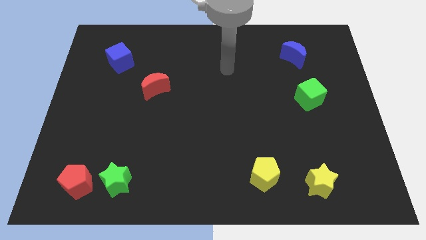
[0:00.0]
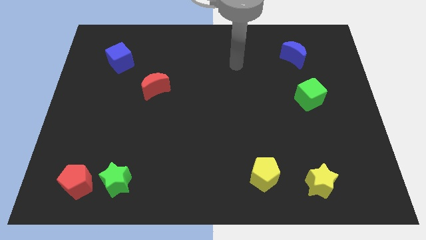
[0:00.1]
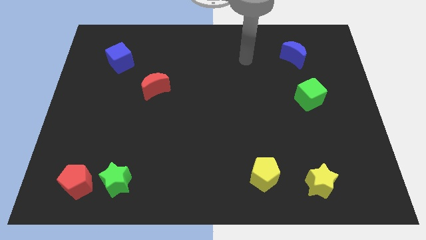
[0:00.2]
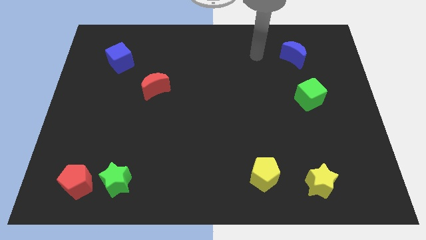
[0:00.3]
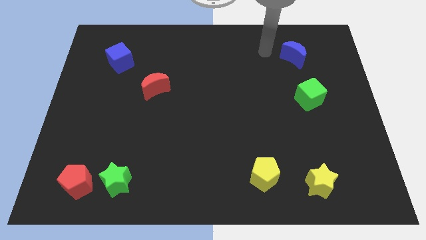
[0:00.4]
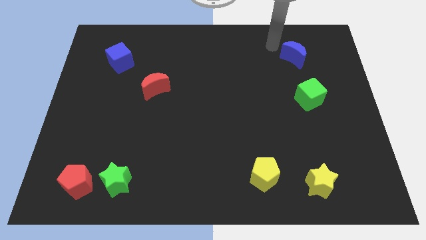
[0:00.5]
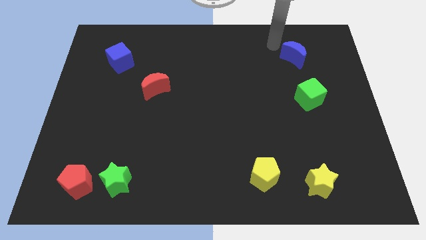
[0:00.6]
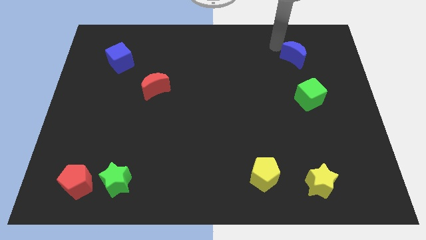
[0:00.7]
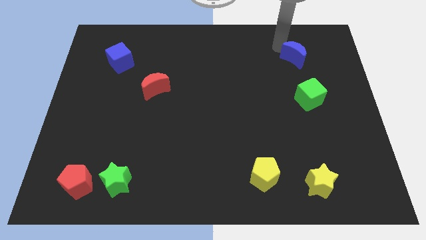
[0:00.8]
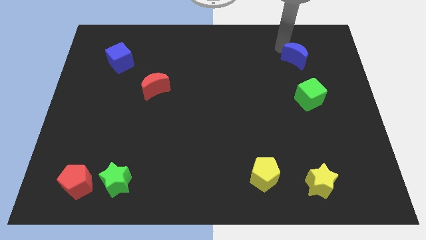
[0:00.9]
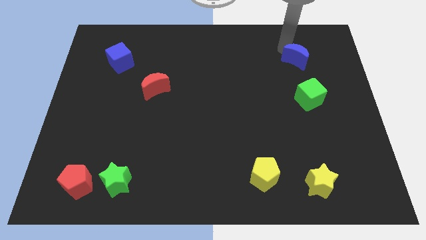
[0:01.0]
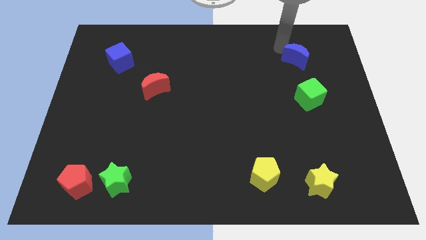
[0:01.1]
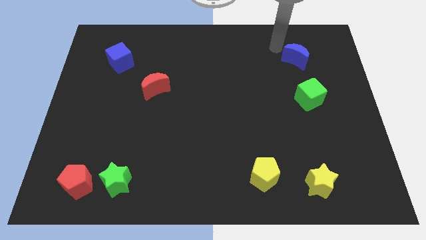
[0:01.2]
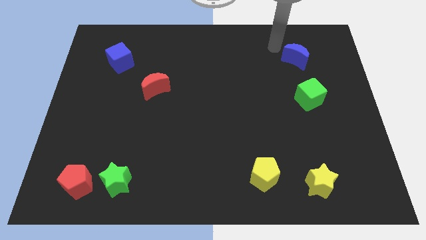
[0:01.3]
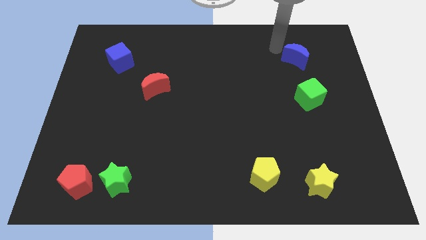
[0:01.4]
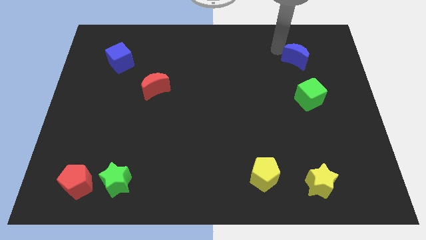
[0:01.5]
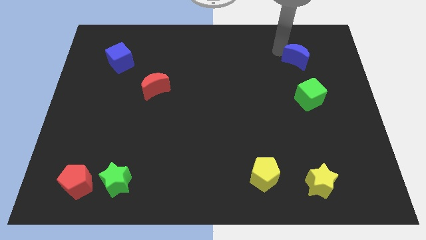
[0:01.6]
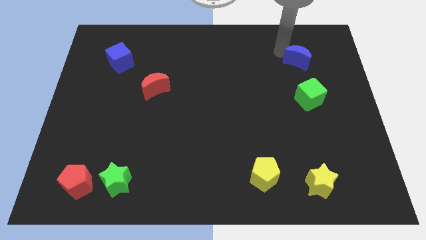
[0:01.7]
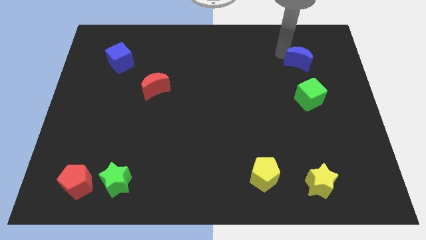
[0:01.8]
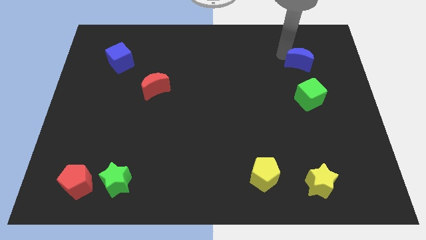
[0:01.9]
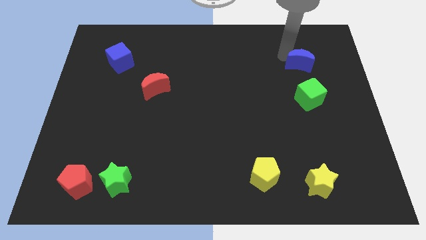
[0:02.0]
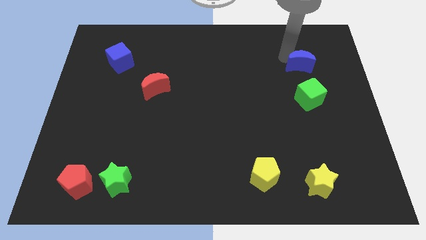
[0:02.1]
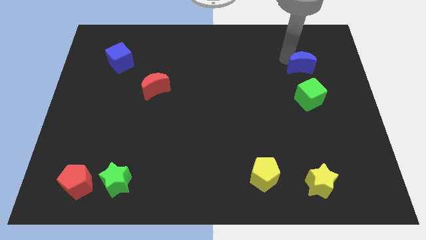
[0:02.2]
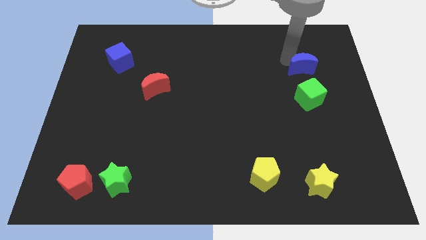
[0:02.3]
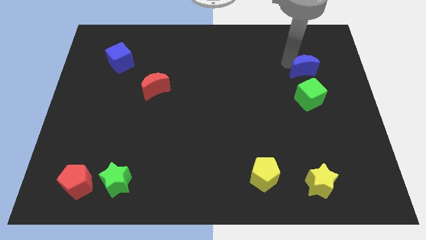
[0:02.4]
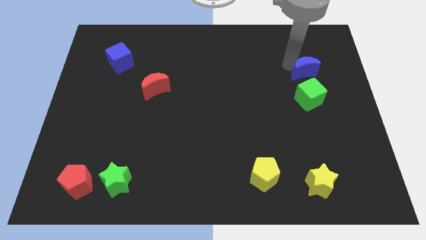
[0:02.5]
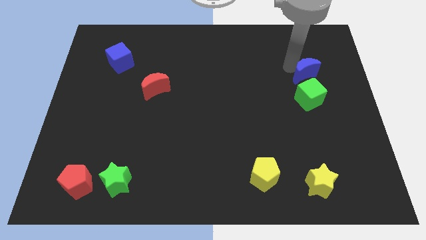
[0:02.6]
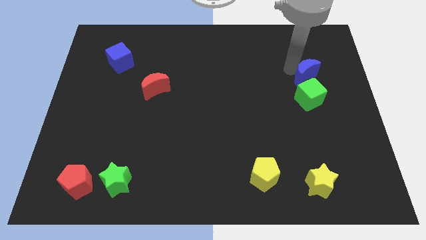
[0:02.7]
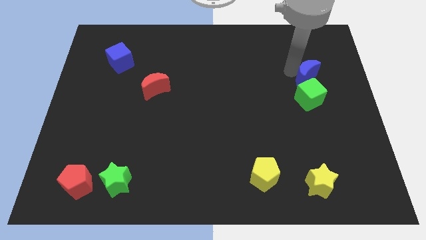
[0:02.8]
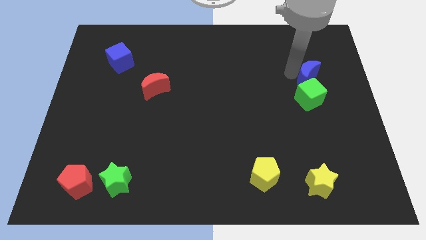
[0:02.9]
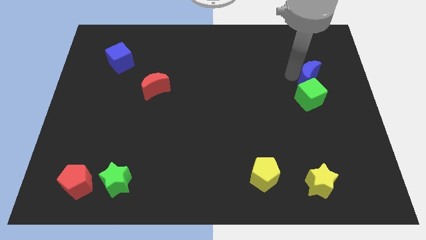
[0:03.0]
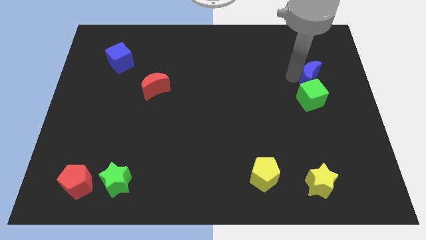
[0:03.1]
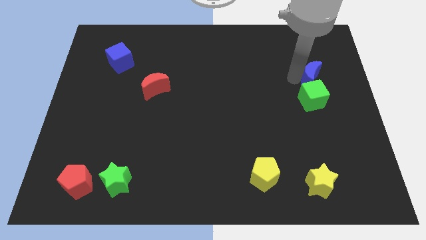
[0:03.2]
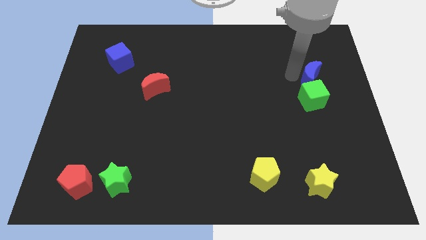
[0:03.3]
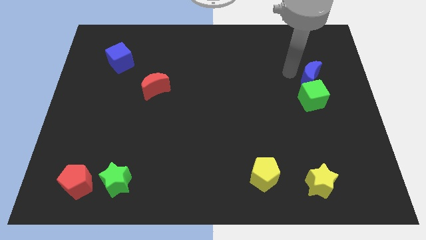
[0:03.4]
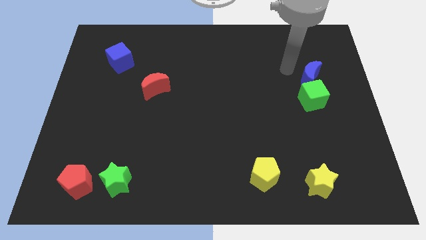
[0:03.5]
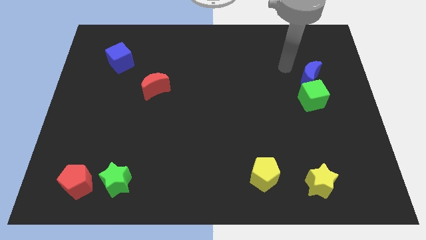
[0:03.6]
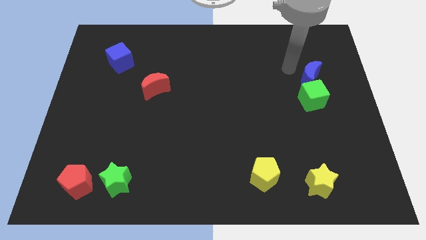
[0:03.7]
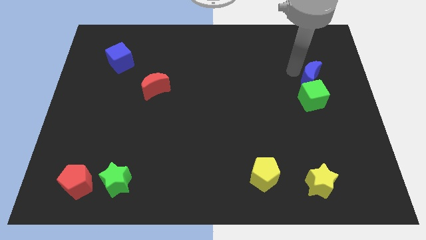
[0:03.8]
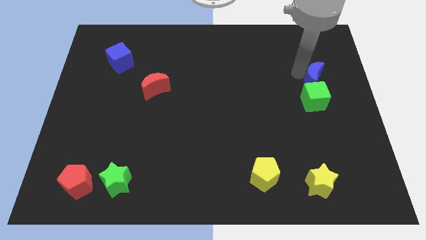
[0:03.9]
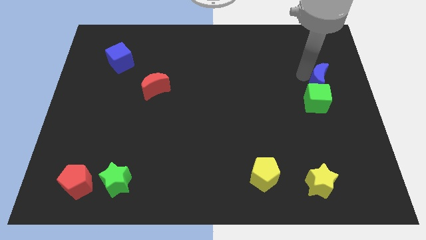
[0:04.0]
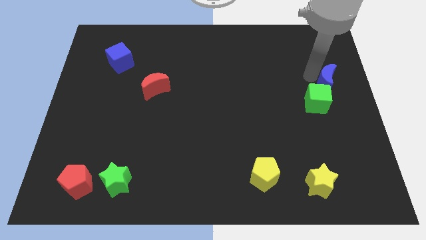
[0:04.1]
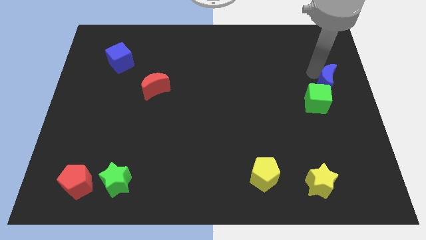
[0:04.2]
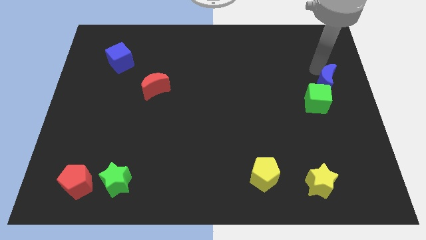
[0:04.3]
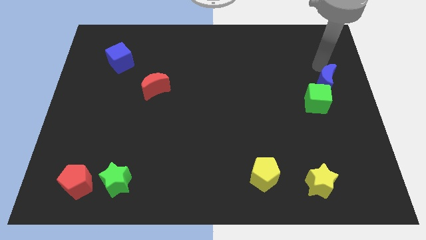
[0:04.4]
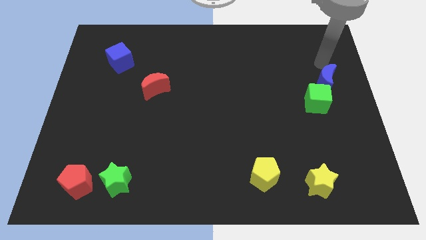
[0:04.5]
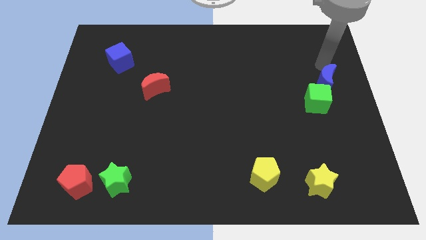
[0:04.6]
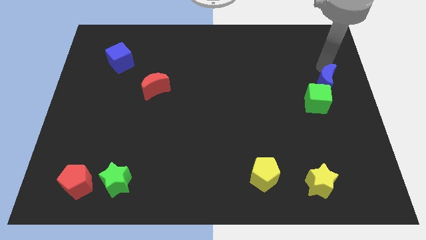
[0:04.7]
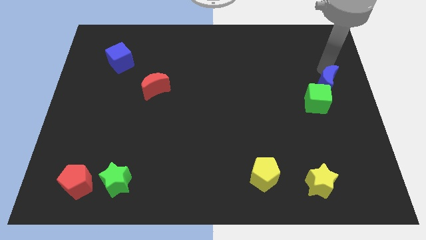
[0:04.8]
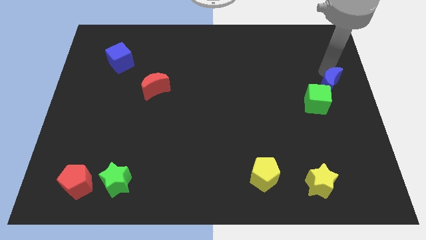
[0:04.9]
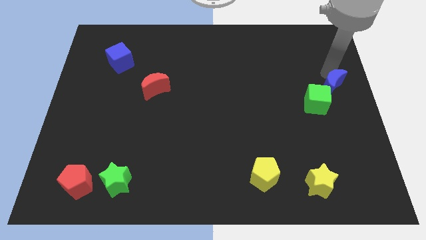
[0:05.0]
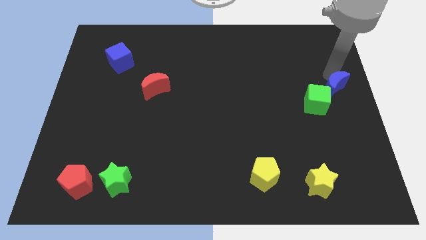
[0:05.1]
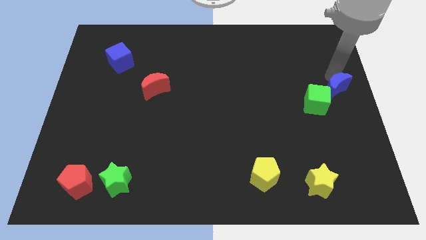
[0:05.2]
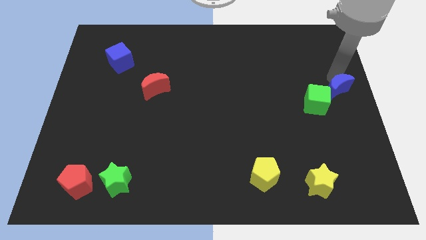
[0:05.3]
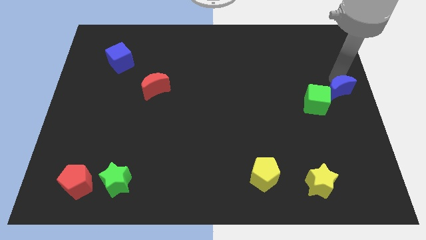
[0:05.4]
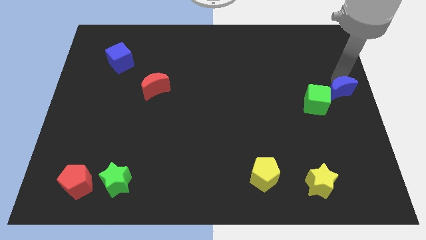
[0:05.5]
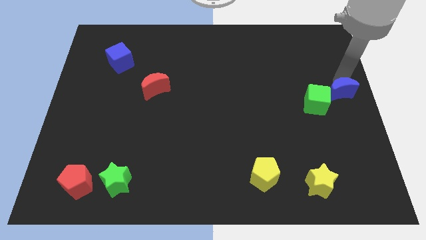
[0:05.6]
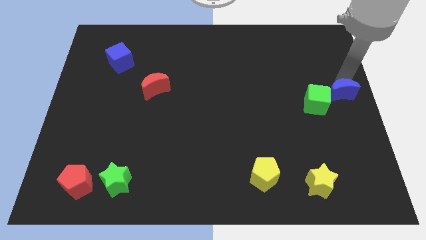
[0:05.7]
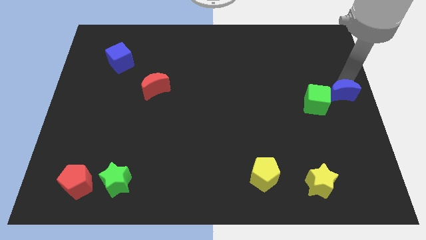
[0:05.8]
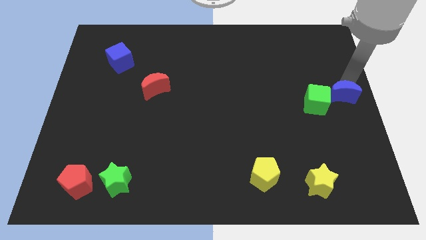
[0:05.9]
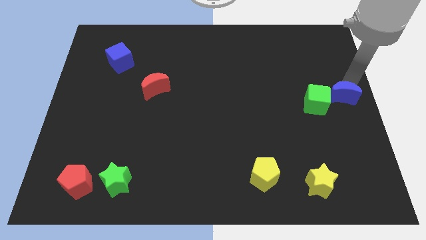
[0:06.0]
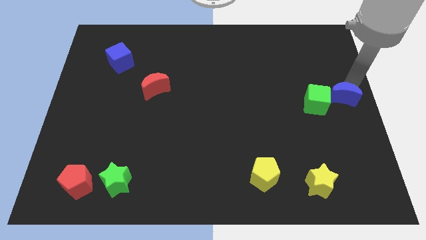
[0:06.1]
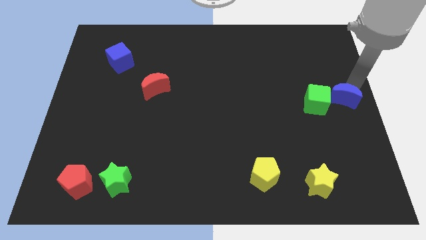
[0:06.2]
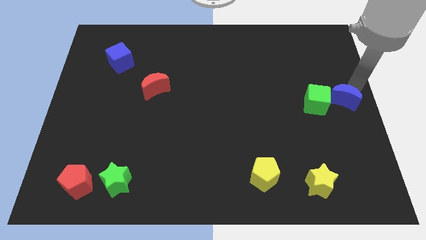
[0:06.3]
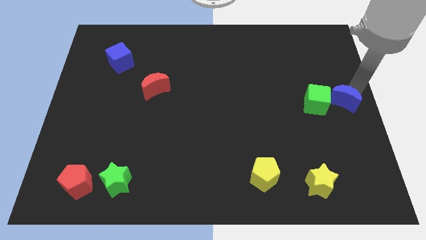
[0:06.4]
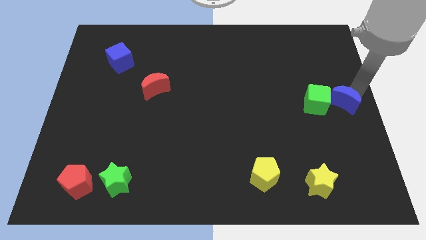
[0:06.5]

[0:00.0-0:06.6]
slide the blue moon diagonally down and to the right of the green cube
